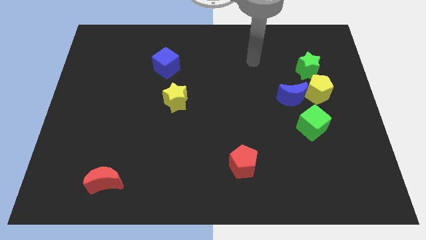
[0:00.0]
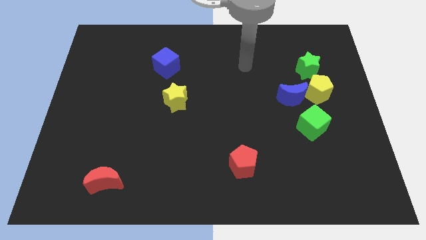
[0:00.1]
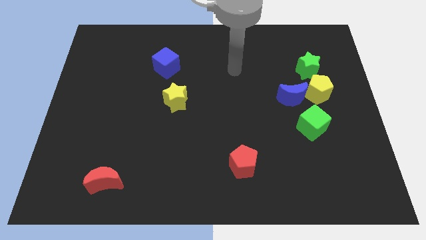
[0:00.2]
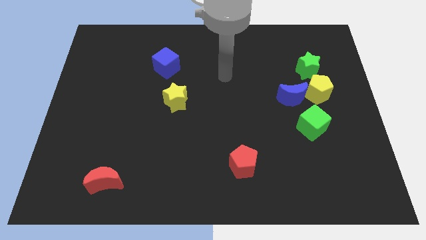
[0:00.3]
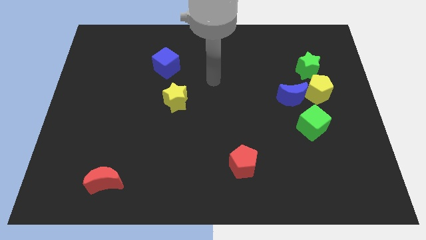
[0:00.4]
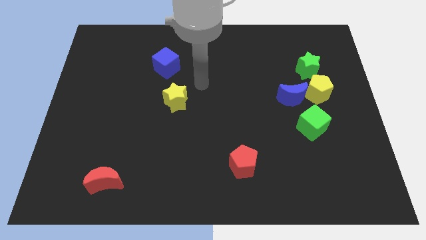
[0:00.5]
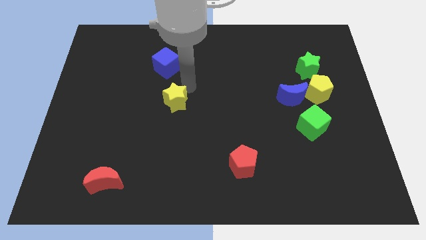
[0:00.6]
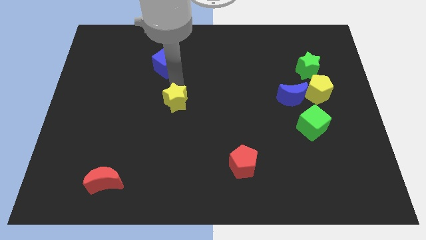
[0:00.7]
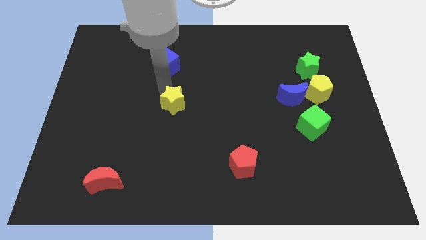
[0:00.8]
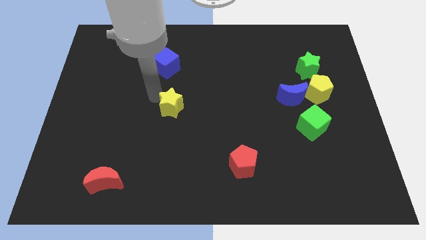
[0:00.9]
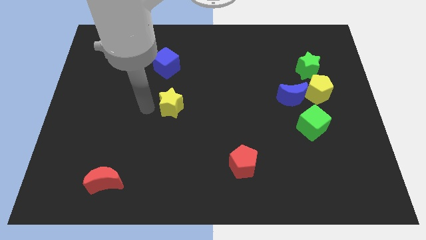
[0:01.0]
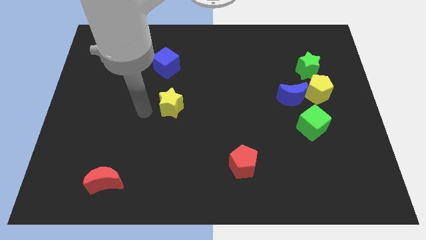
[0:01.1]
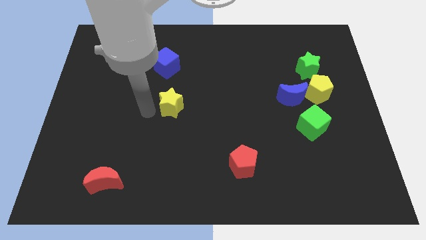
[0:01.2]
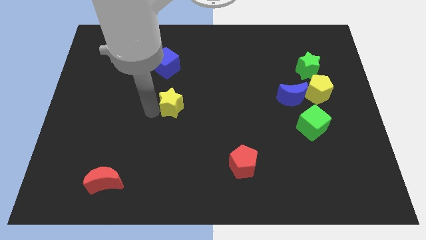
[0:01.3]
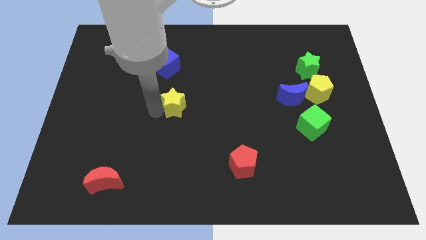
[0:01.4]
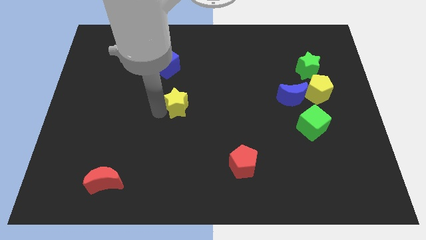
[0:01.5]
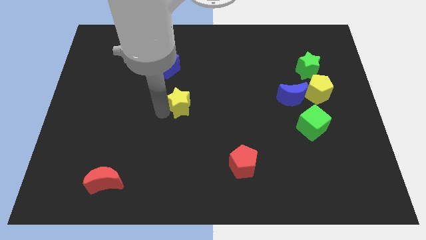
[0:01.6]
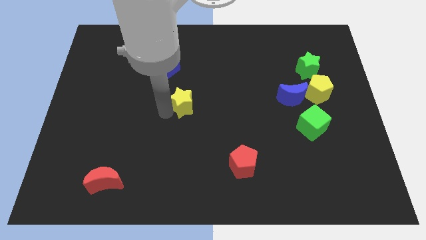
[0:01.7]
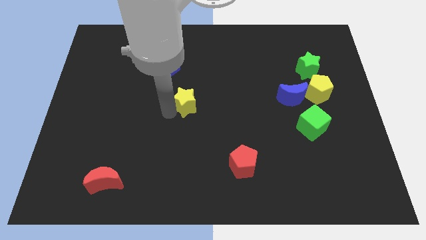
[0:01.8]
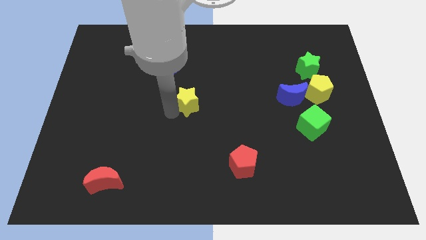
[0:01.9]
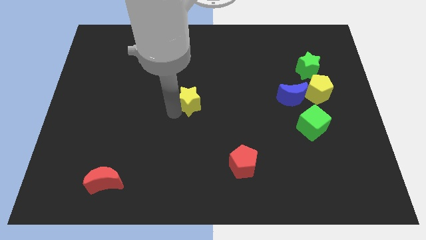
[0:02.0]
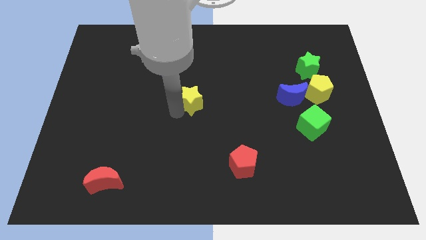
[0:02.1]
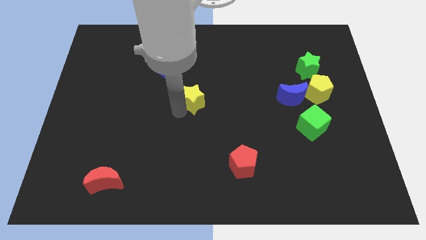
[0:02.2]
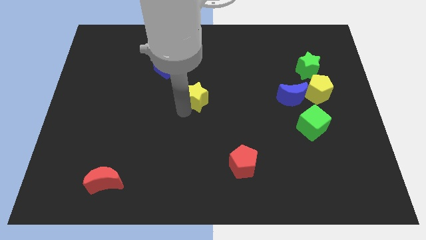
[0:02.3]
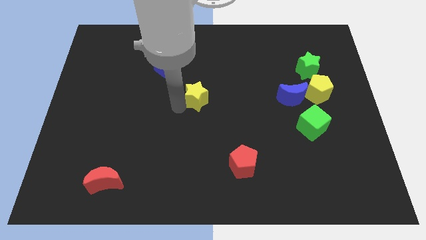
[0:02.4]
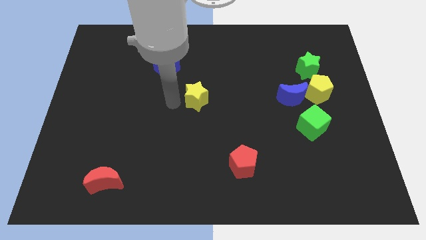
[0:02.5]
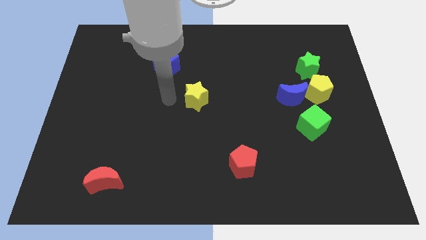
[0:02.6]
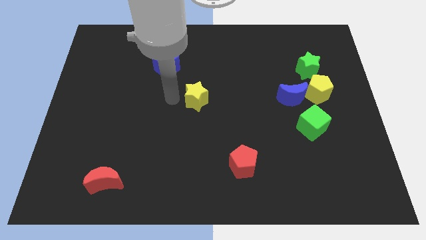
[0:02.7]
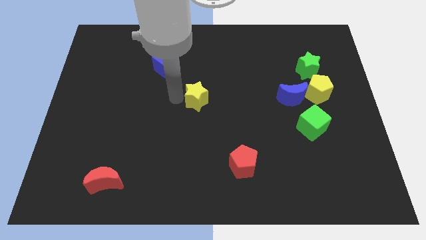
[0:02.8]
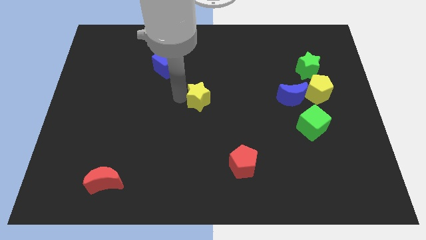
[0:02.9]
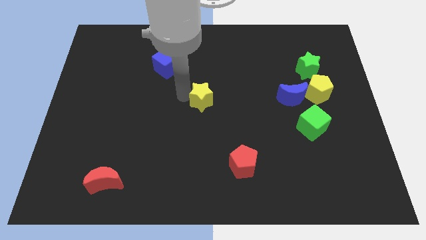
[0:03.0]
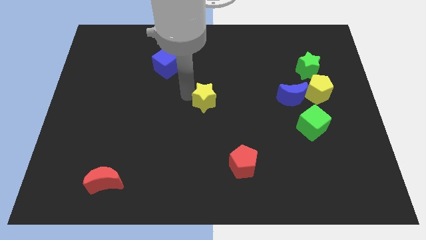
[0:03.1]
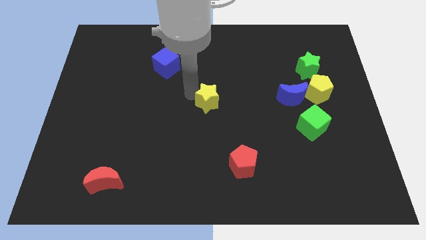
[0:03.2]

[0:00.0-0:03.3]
push the yellow star to the right somewhat

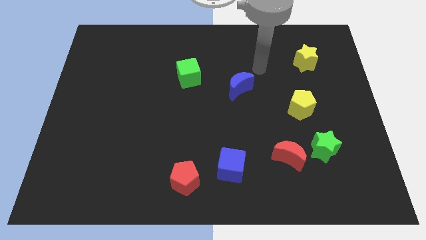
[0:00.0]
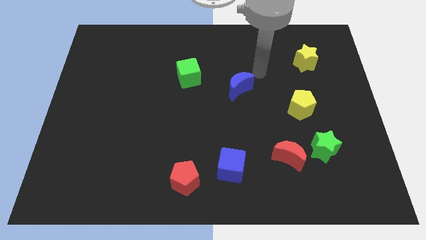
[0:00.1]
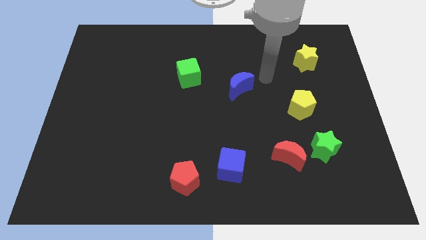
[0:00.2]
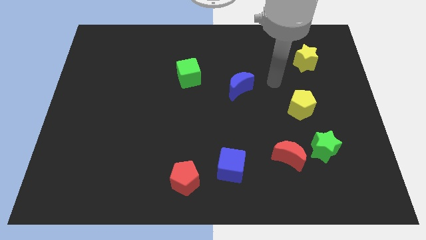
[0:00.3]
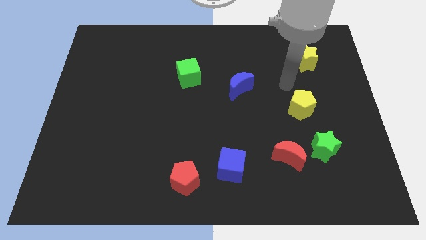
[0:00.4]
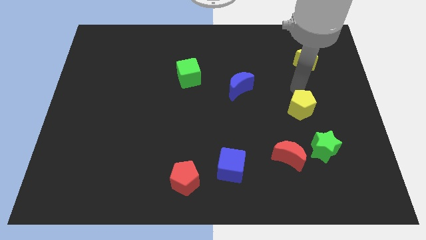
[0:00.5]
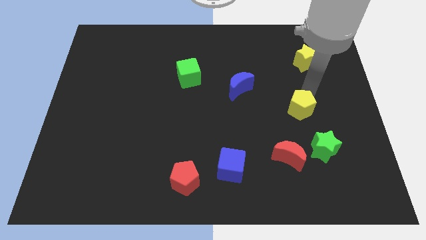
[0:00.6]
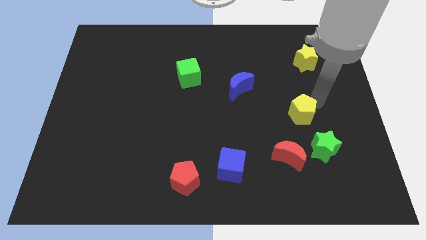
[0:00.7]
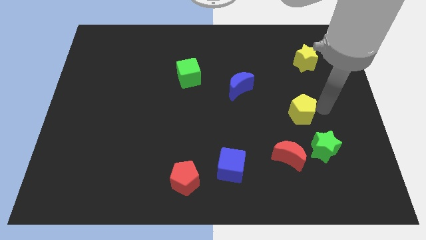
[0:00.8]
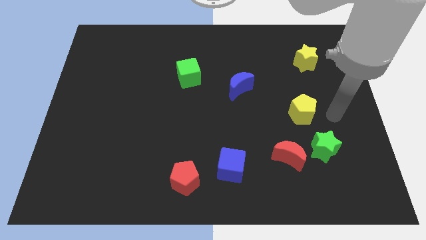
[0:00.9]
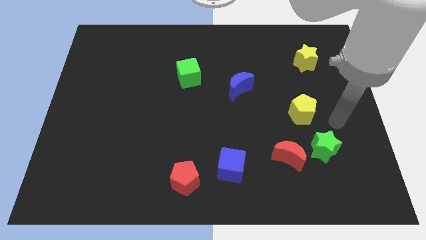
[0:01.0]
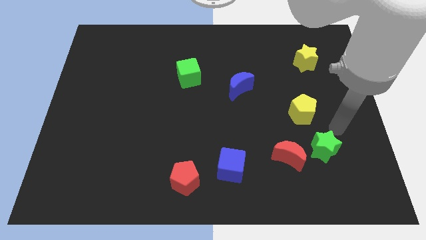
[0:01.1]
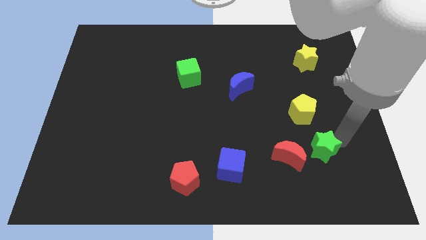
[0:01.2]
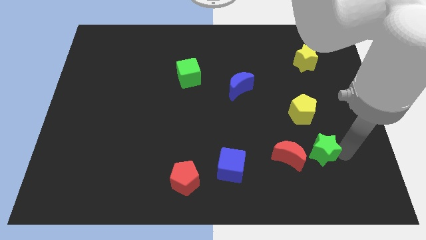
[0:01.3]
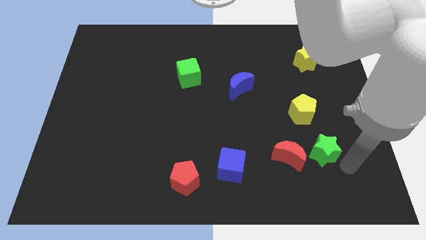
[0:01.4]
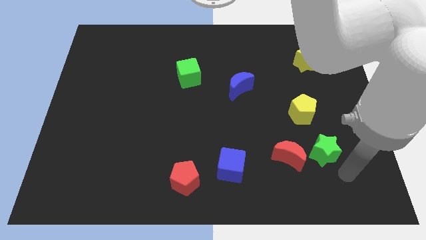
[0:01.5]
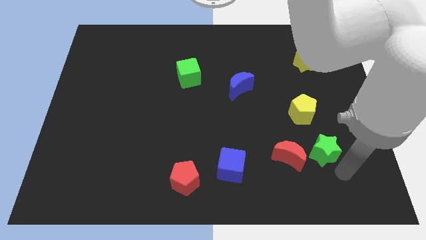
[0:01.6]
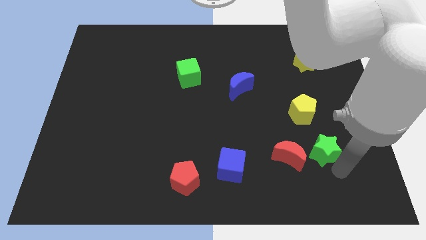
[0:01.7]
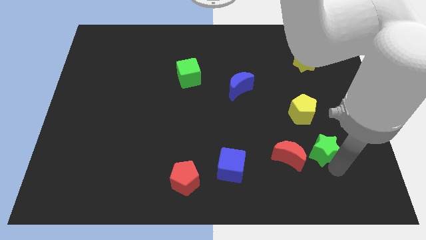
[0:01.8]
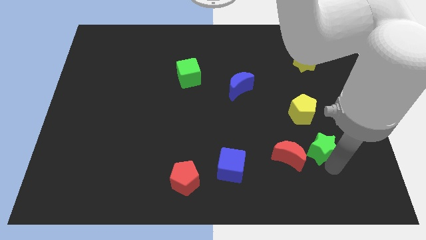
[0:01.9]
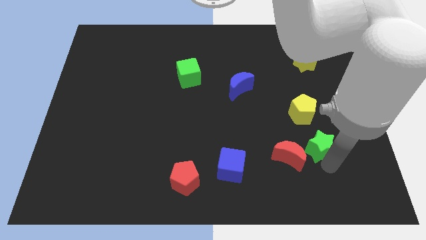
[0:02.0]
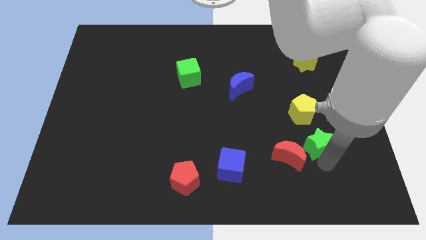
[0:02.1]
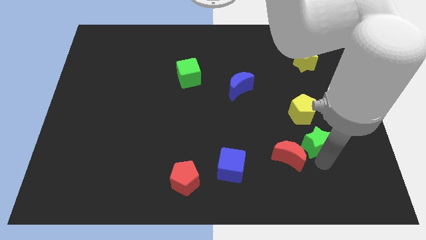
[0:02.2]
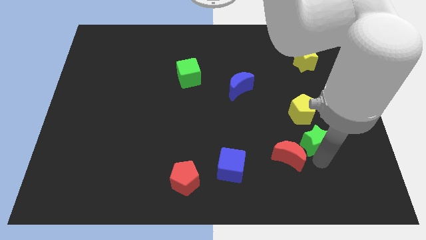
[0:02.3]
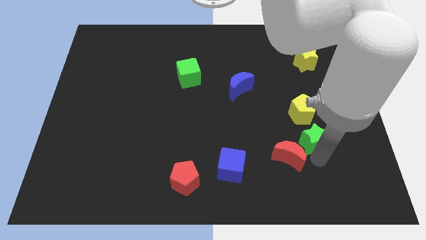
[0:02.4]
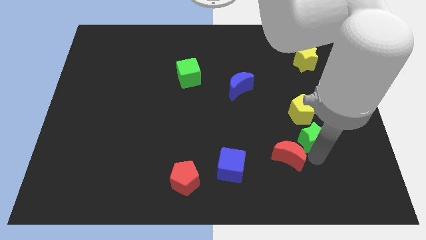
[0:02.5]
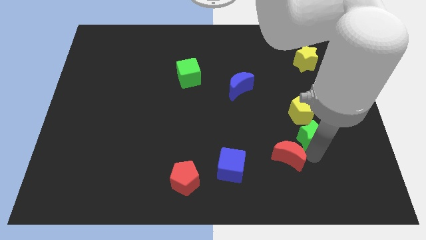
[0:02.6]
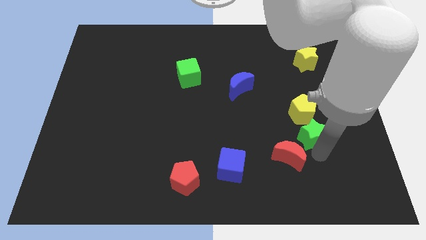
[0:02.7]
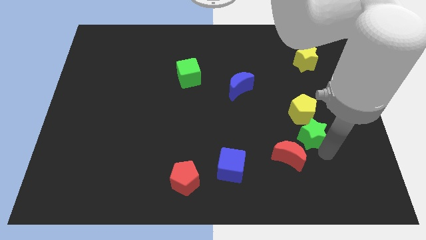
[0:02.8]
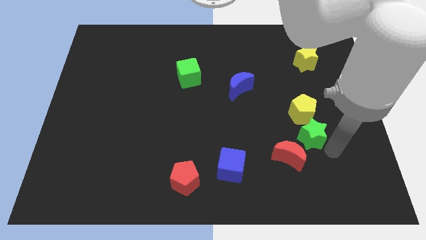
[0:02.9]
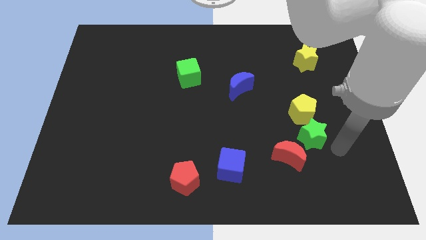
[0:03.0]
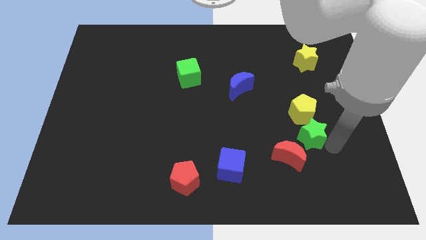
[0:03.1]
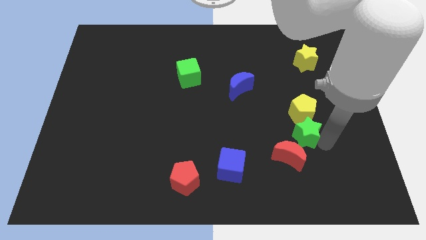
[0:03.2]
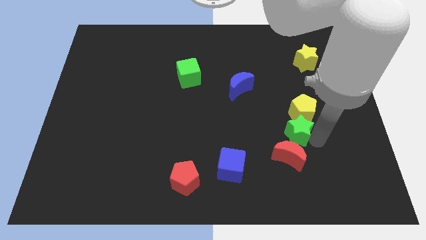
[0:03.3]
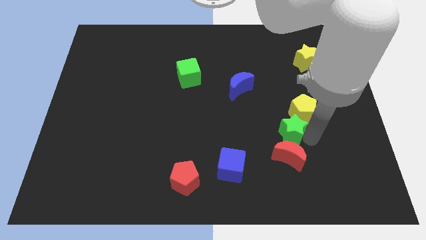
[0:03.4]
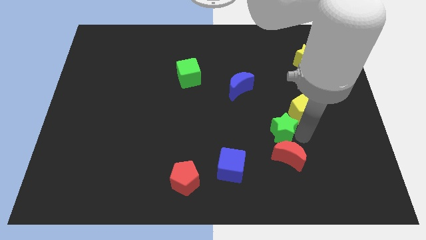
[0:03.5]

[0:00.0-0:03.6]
push the green star left a little

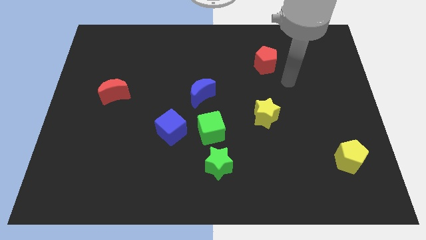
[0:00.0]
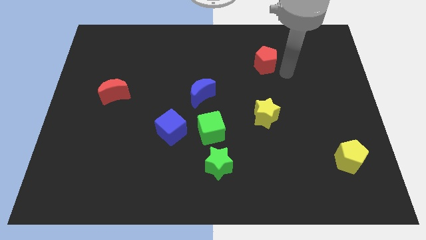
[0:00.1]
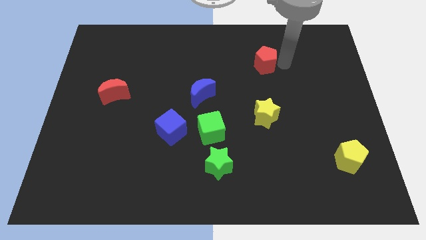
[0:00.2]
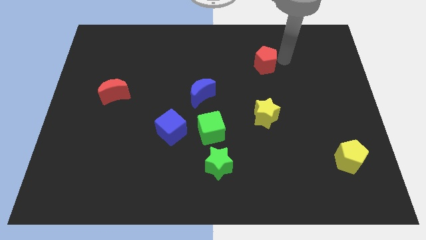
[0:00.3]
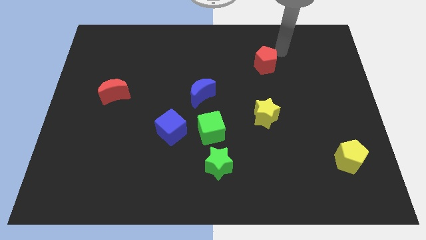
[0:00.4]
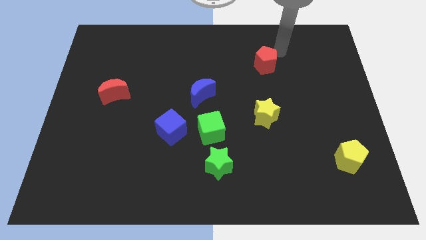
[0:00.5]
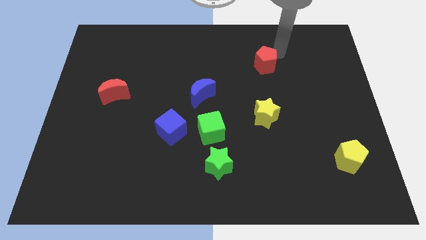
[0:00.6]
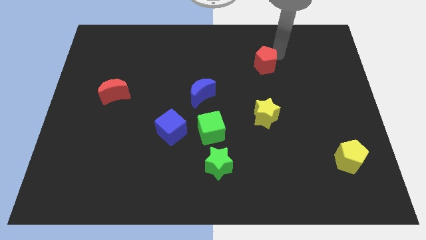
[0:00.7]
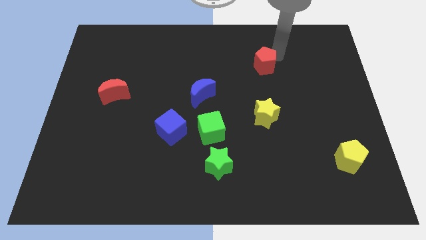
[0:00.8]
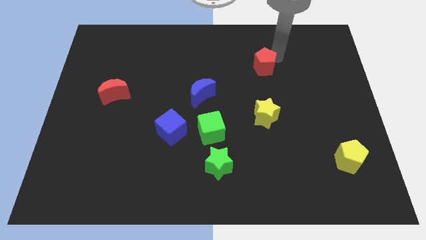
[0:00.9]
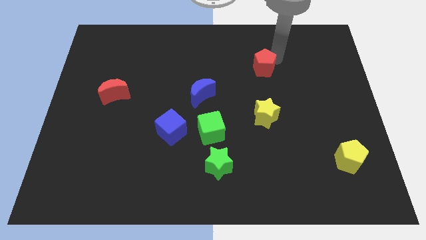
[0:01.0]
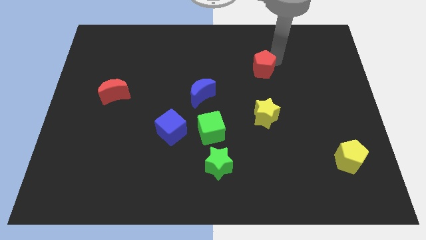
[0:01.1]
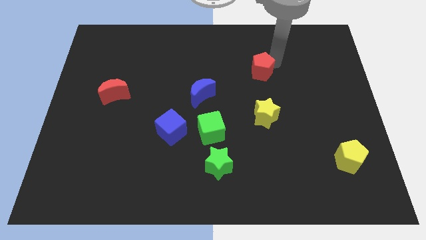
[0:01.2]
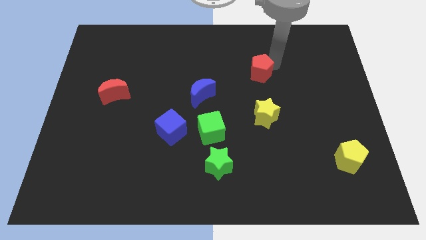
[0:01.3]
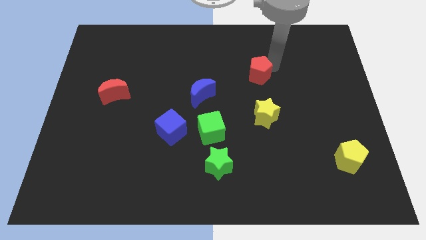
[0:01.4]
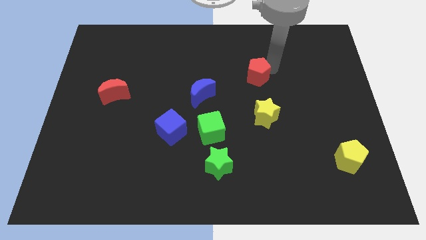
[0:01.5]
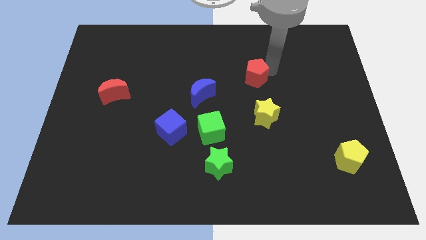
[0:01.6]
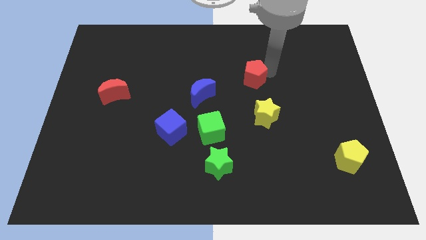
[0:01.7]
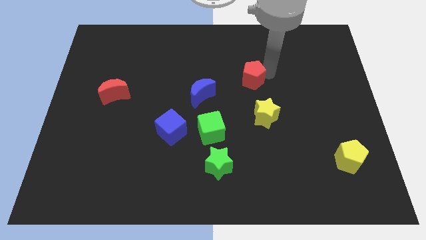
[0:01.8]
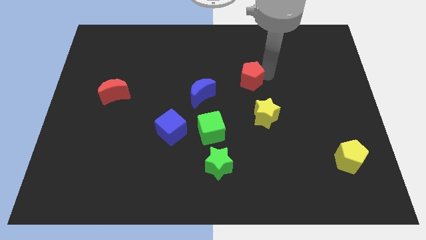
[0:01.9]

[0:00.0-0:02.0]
slightly slide the red pentagon down and then to the left
